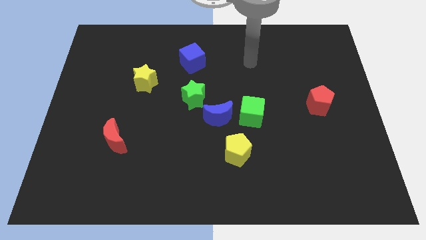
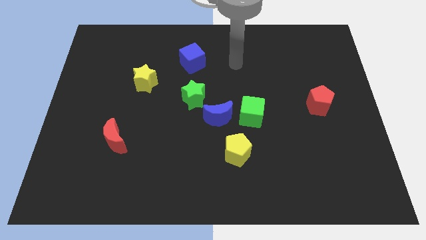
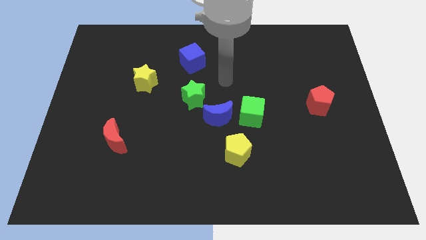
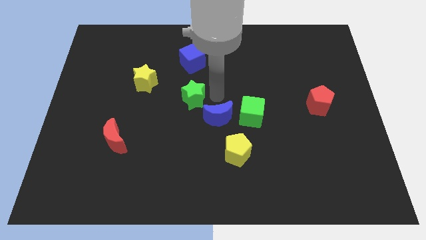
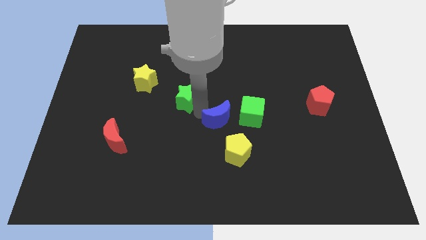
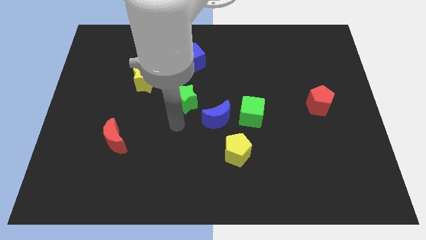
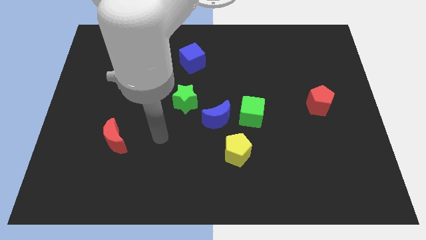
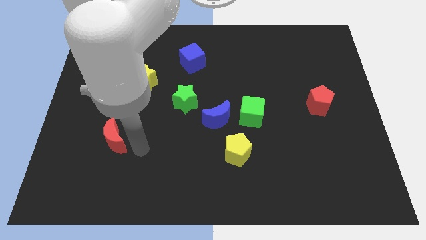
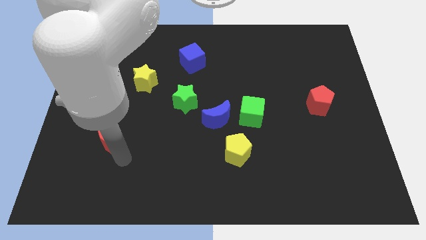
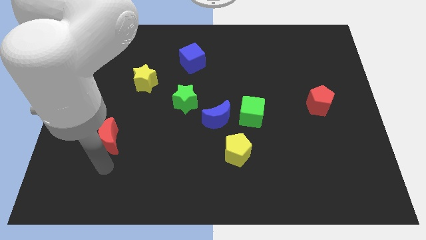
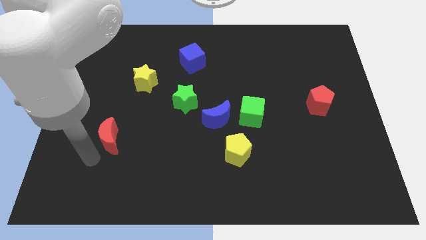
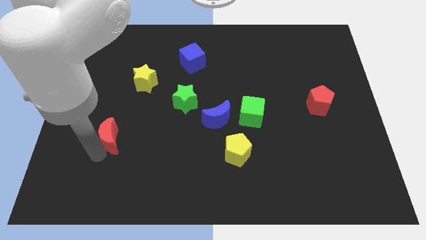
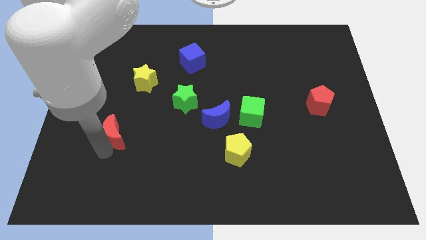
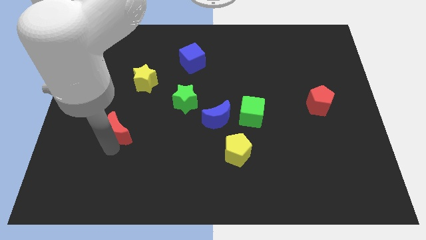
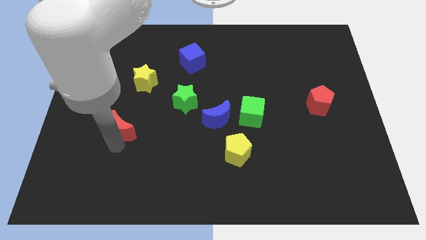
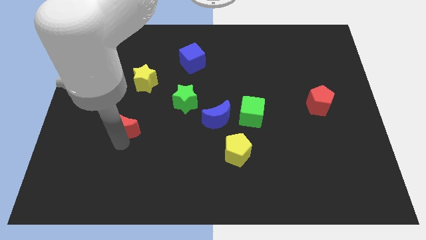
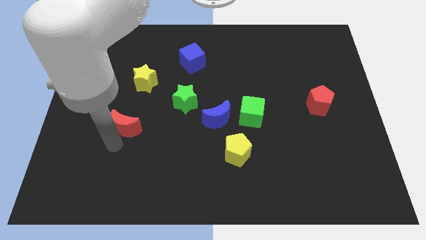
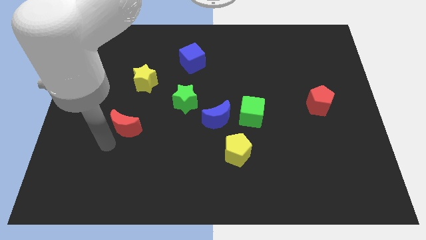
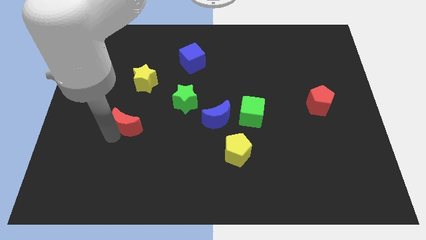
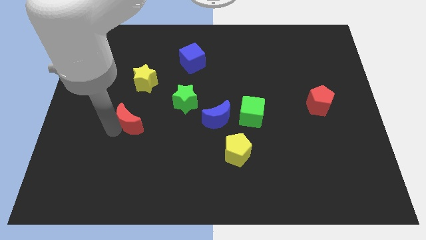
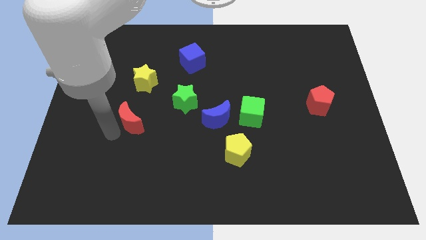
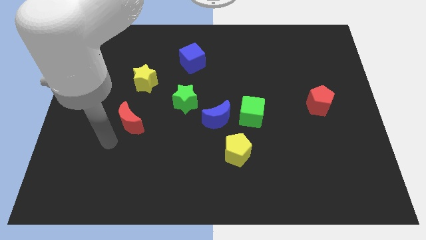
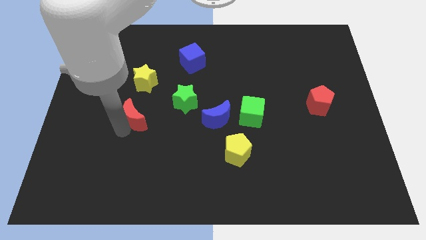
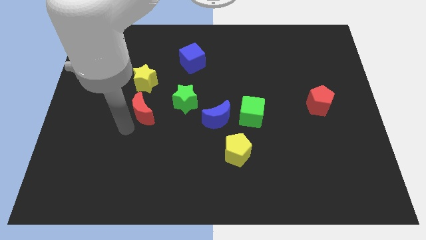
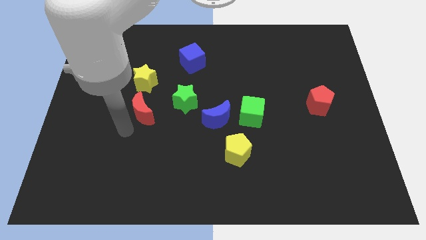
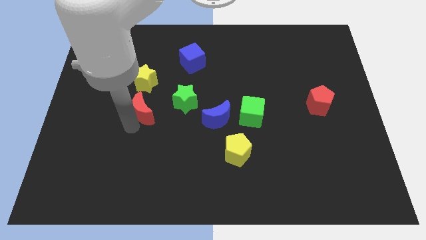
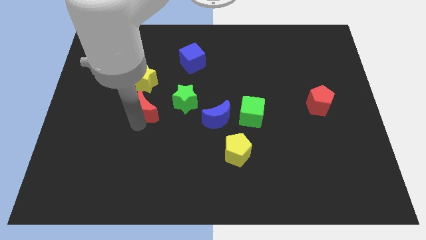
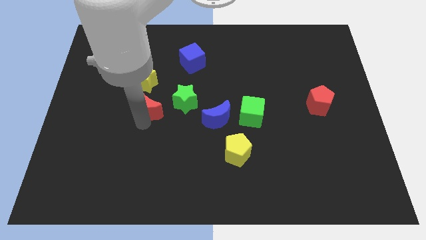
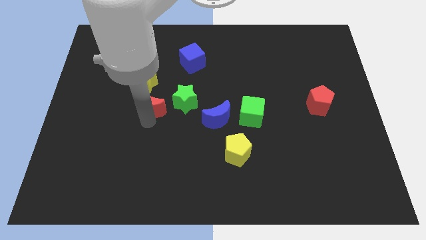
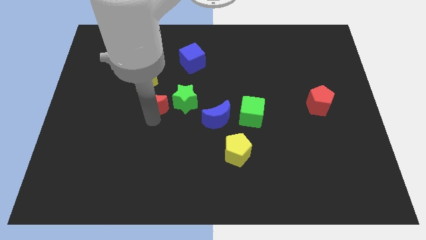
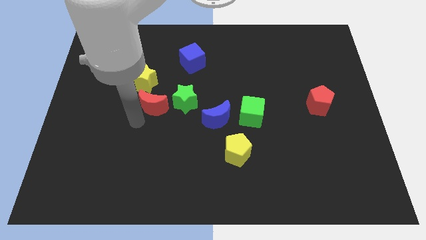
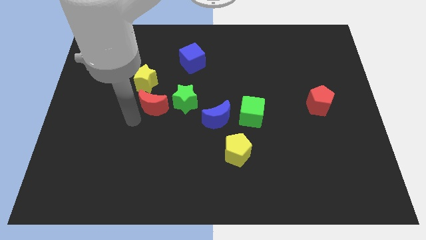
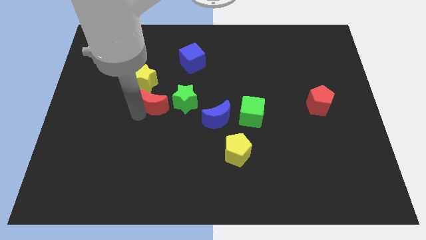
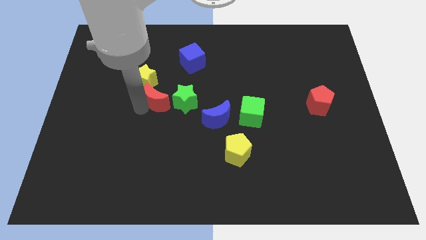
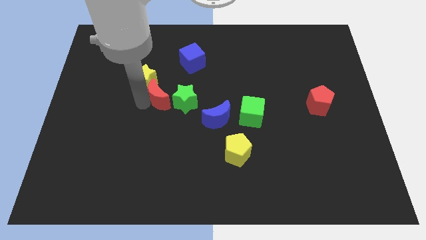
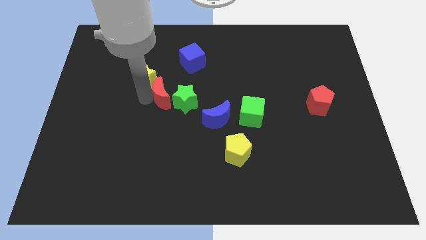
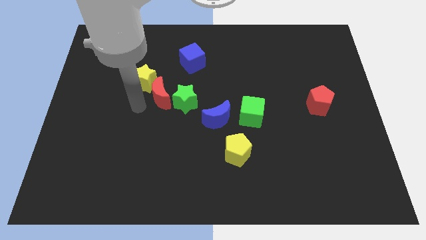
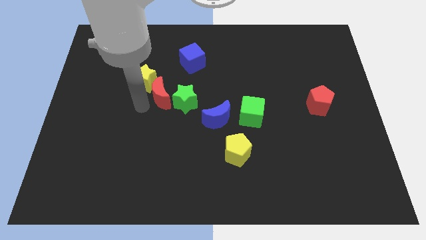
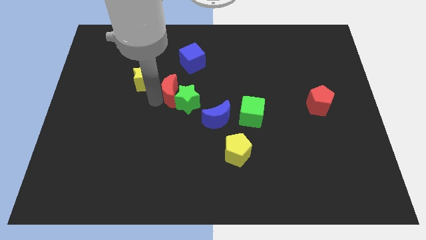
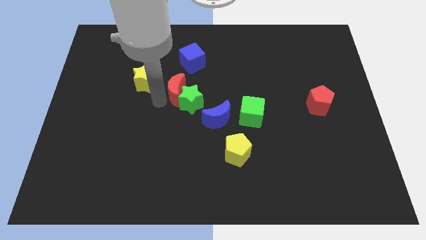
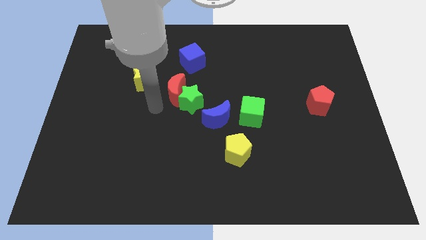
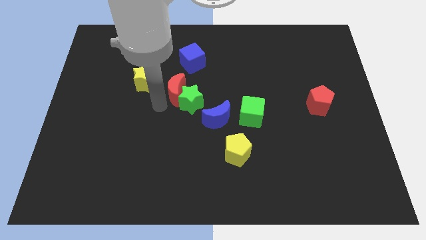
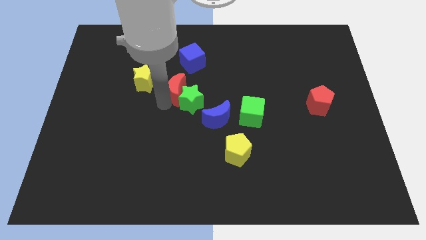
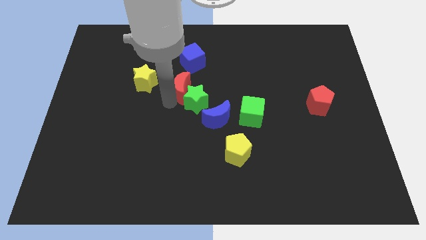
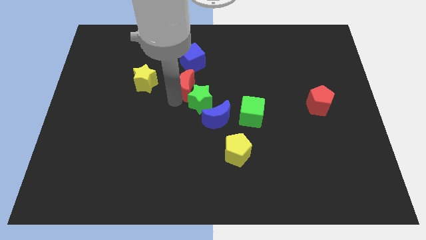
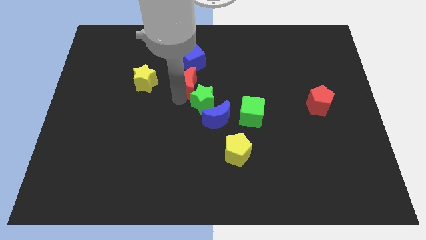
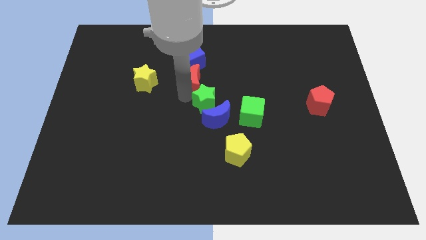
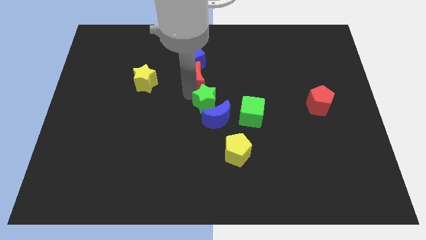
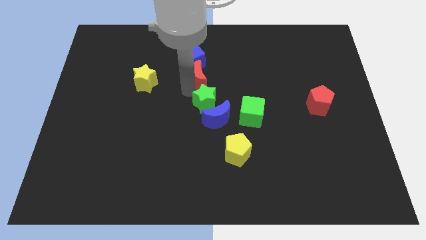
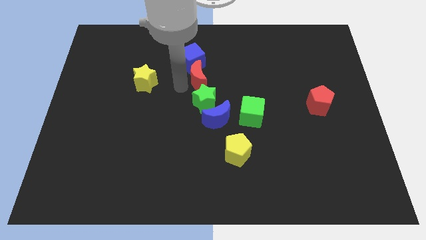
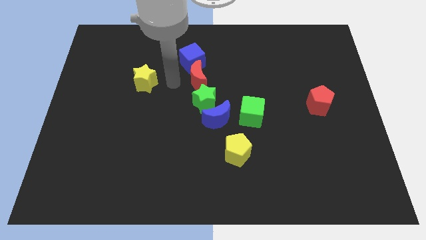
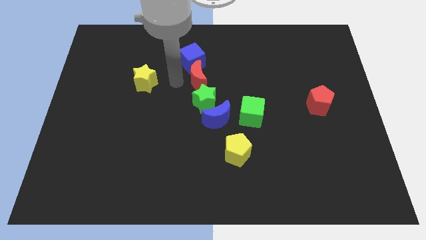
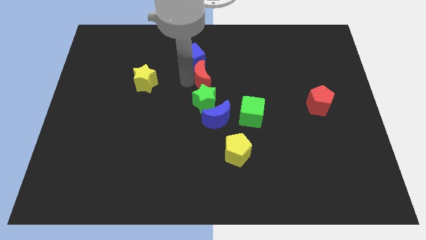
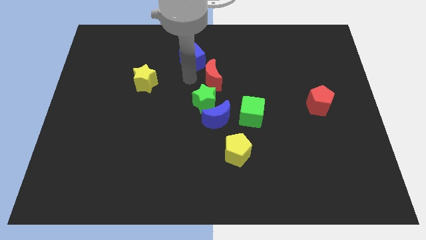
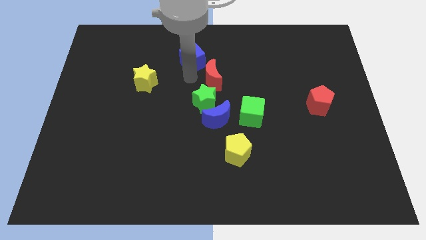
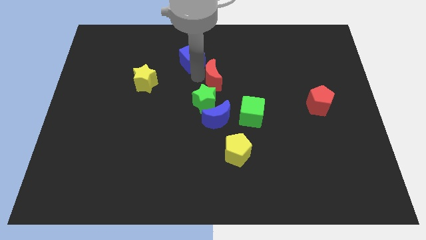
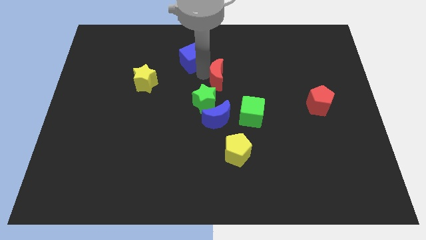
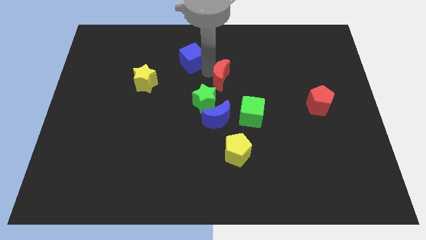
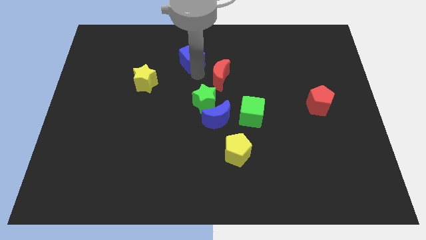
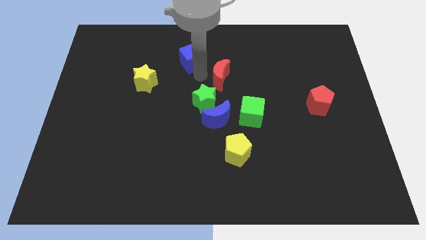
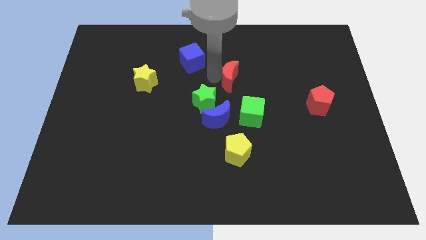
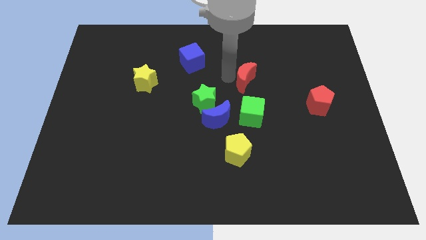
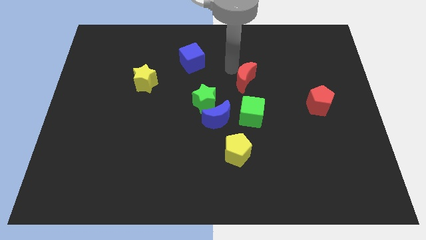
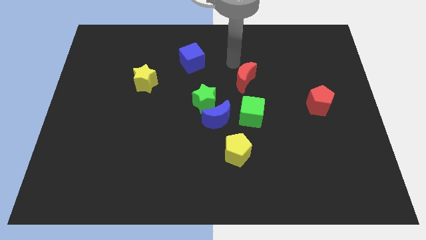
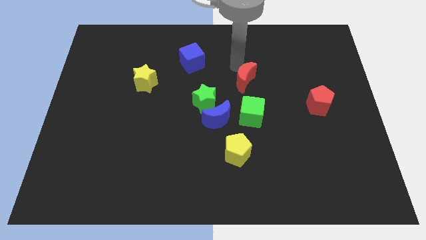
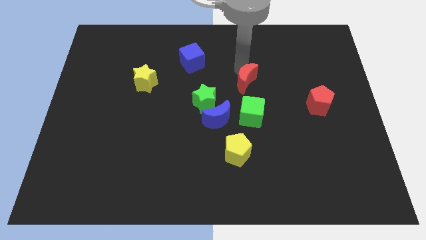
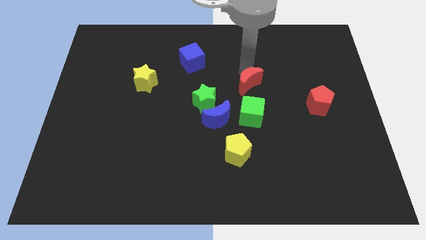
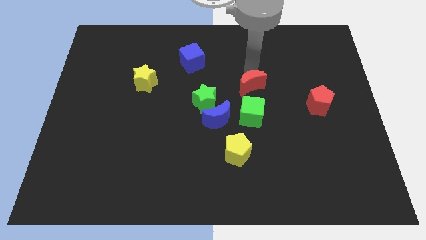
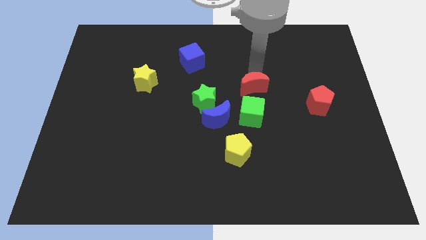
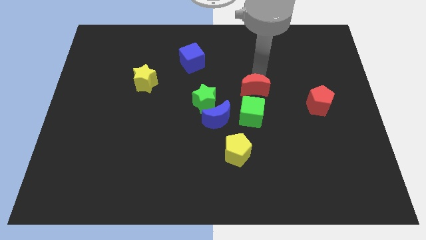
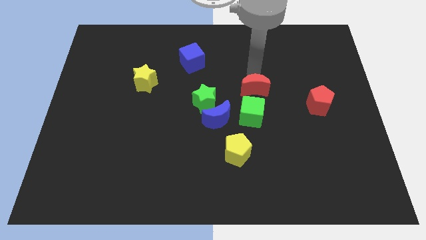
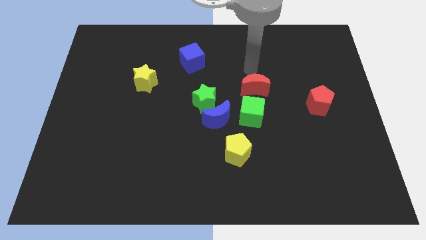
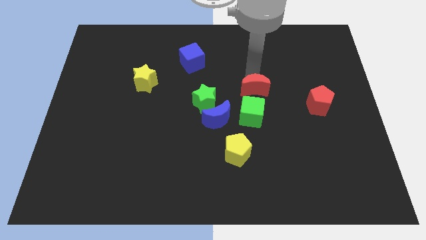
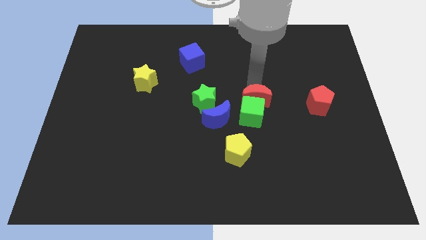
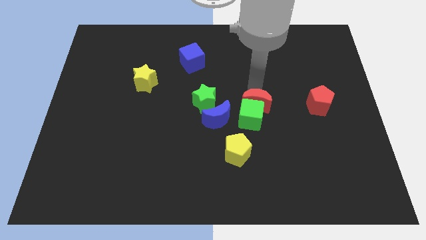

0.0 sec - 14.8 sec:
put the red moon to the right of the blue moon
